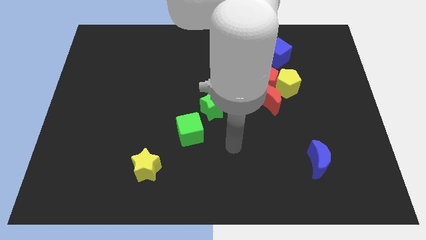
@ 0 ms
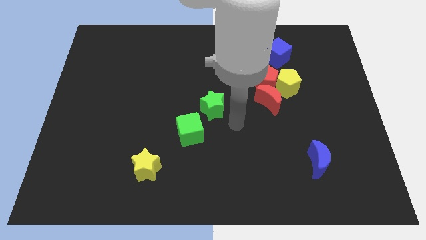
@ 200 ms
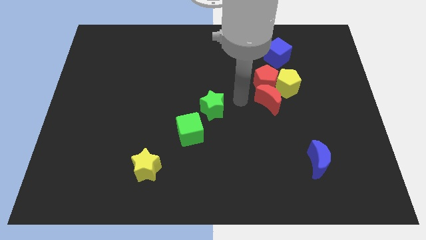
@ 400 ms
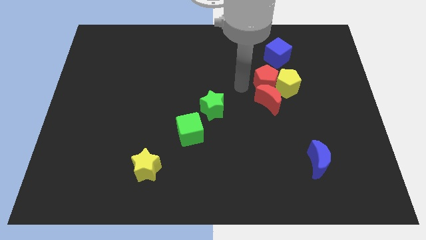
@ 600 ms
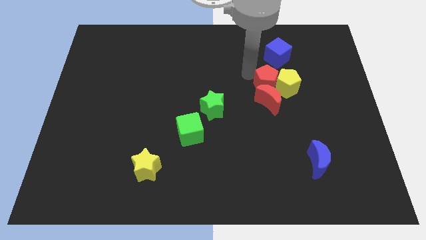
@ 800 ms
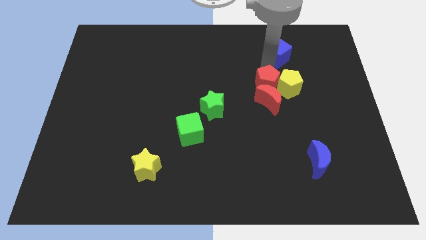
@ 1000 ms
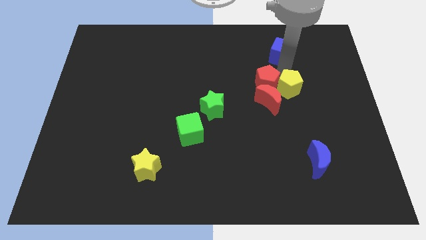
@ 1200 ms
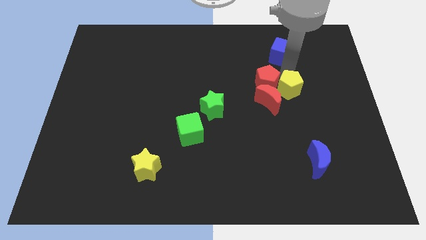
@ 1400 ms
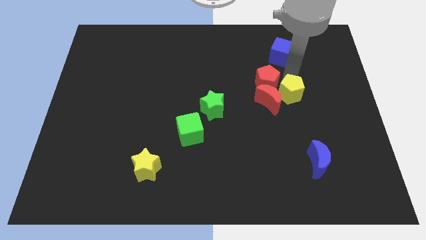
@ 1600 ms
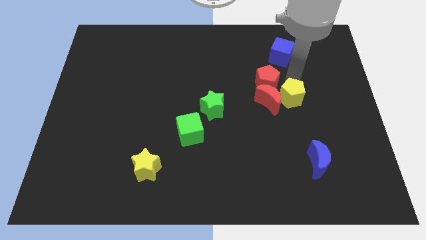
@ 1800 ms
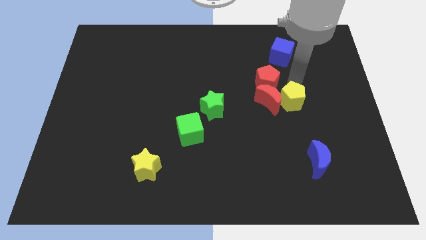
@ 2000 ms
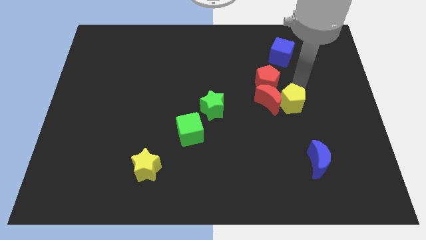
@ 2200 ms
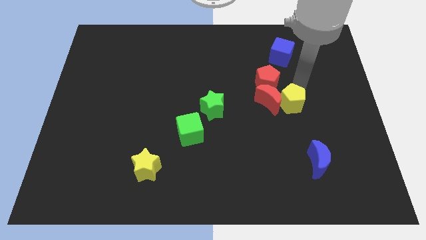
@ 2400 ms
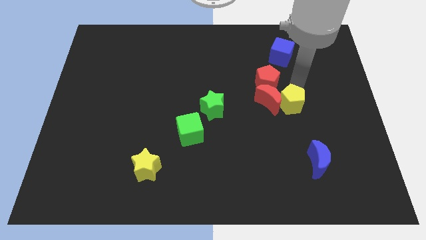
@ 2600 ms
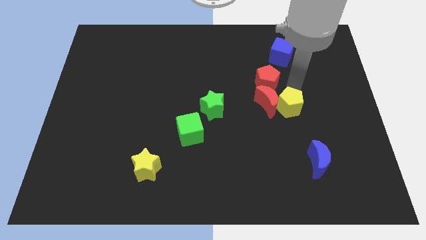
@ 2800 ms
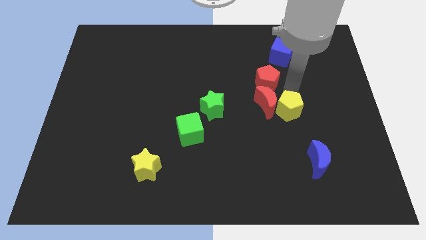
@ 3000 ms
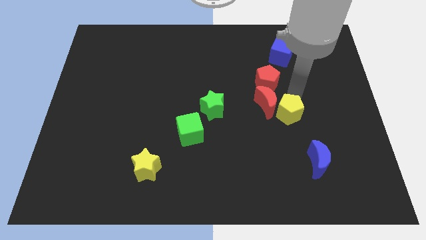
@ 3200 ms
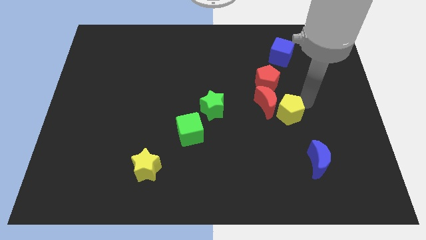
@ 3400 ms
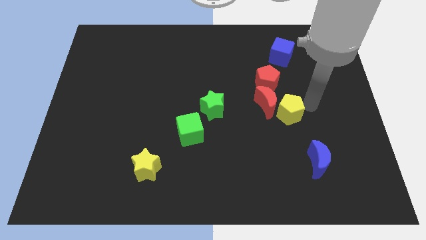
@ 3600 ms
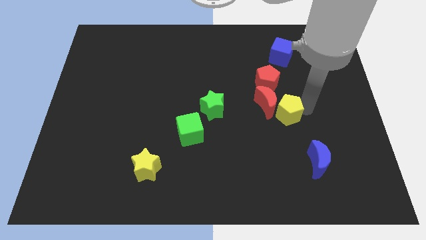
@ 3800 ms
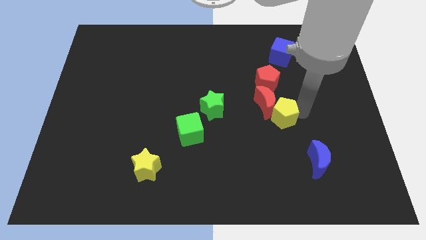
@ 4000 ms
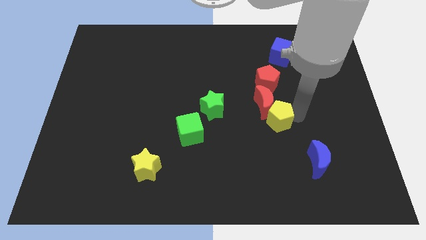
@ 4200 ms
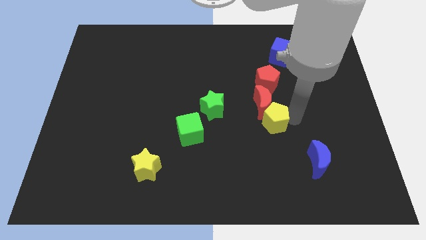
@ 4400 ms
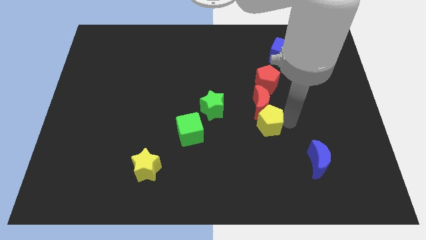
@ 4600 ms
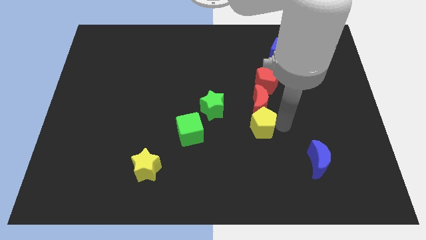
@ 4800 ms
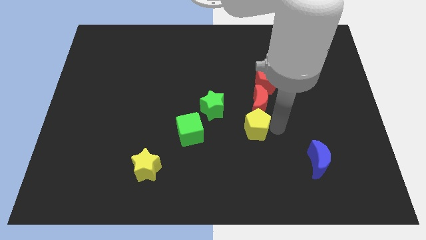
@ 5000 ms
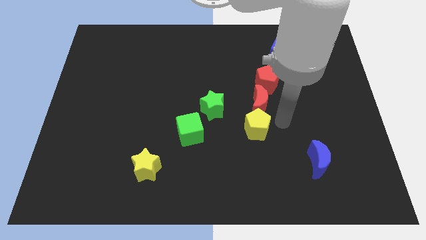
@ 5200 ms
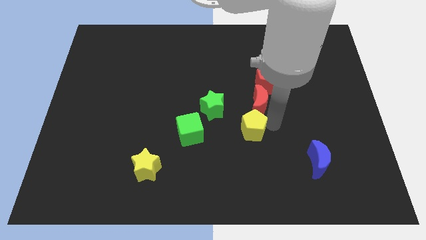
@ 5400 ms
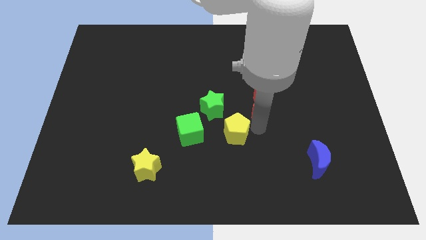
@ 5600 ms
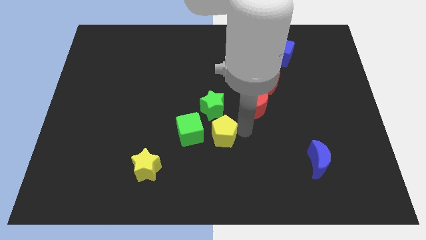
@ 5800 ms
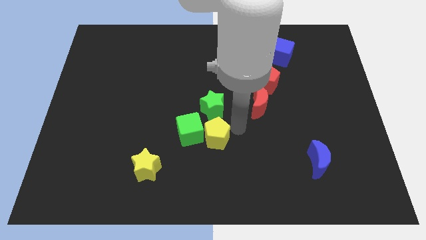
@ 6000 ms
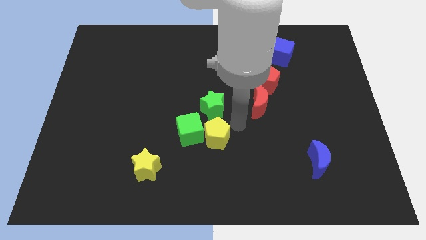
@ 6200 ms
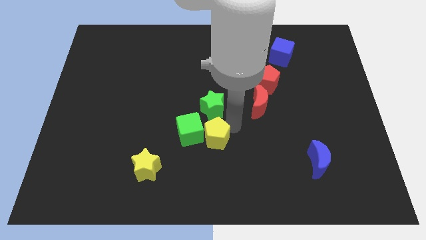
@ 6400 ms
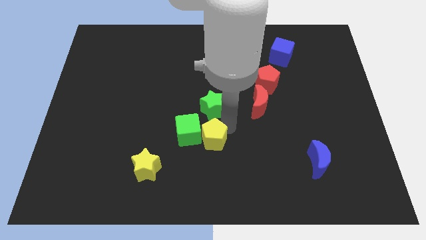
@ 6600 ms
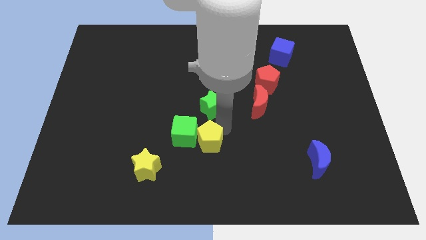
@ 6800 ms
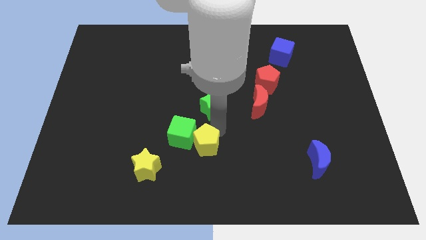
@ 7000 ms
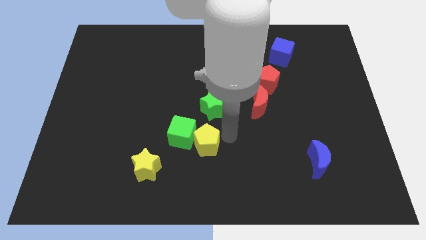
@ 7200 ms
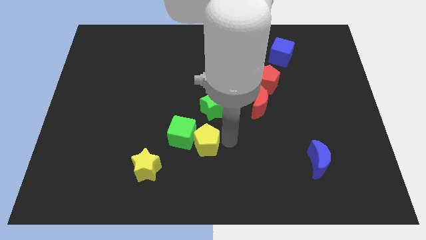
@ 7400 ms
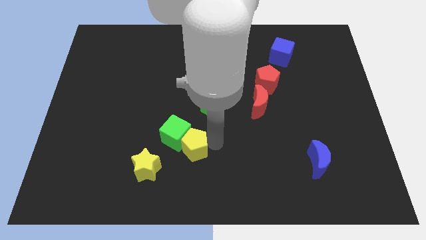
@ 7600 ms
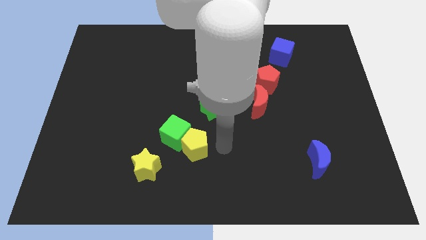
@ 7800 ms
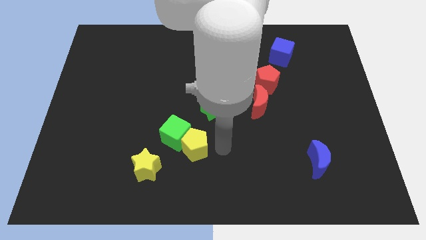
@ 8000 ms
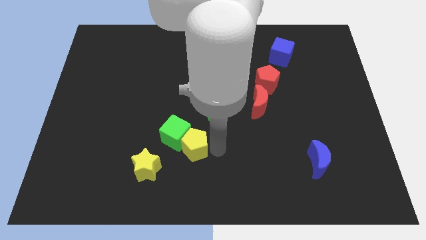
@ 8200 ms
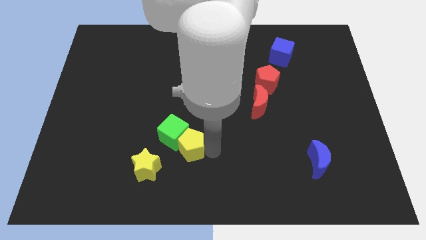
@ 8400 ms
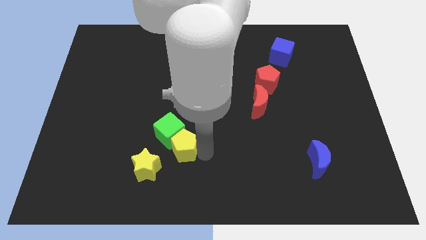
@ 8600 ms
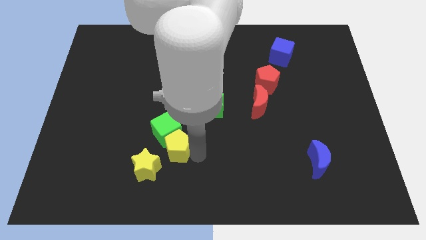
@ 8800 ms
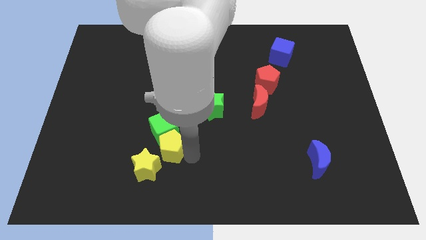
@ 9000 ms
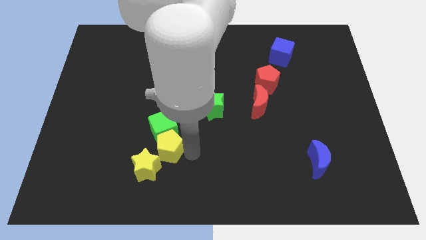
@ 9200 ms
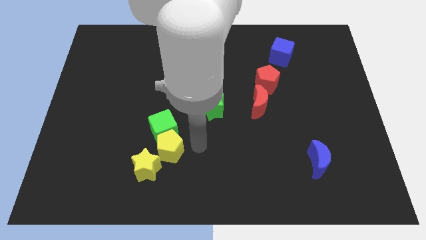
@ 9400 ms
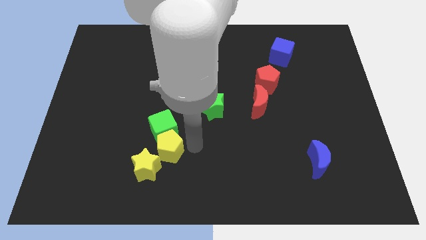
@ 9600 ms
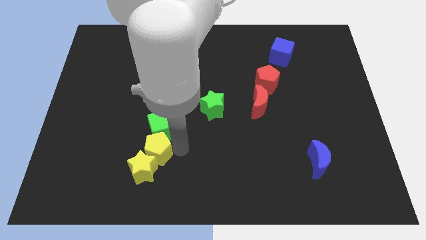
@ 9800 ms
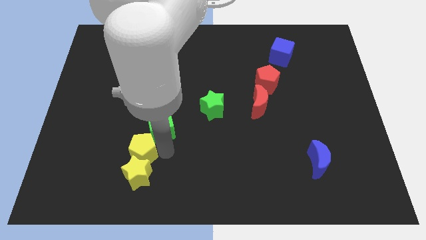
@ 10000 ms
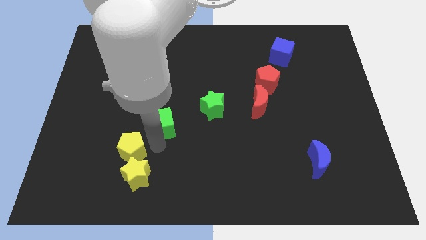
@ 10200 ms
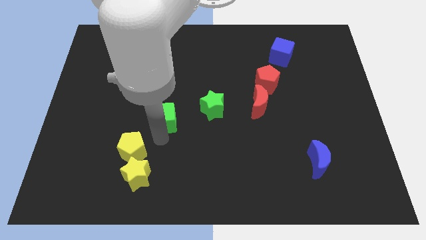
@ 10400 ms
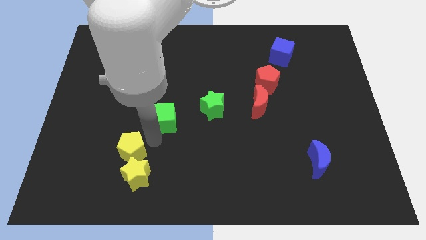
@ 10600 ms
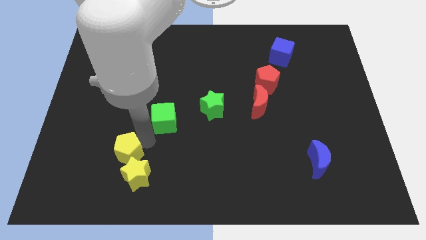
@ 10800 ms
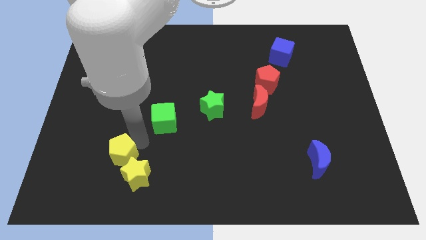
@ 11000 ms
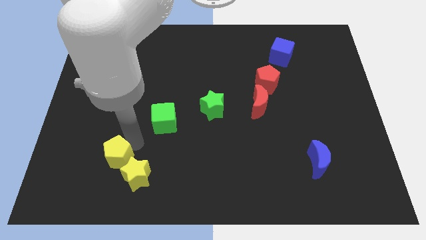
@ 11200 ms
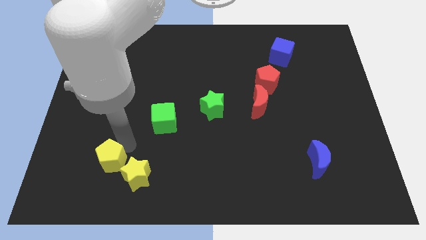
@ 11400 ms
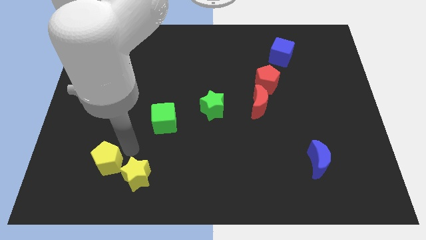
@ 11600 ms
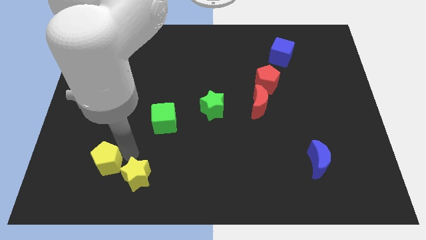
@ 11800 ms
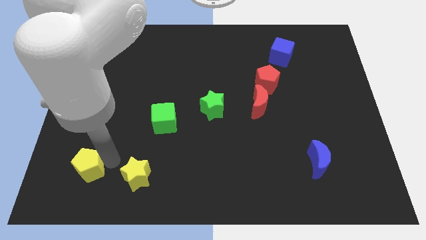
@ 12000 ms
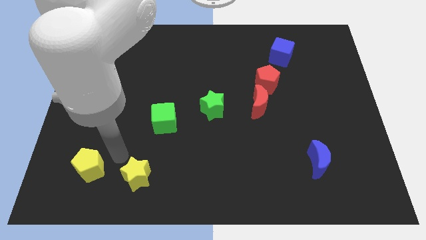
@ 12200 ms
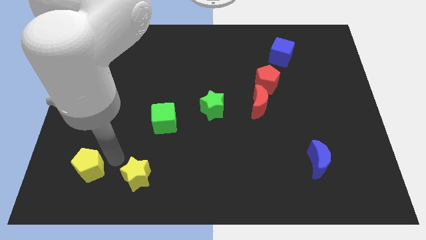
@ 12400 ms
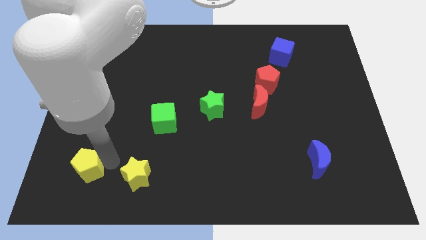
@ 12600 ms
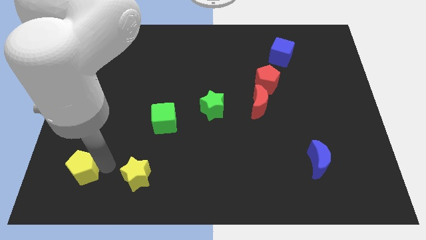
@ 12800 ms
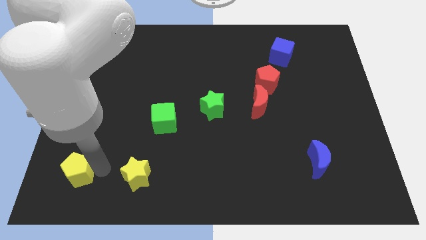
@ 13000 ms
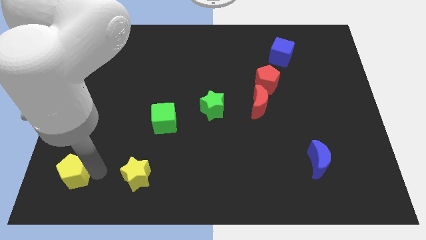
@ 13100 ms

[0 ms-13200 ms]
slide the yellow pentagon to the bottom left corner
